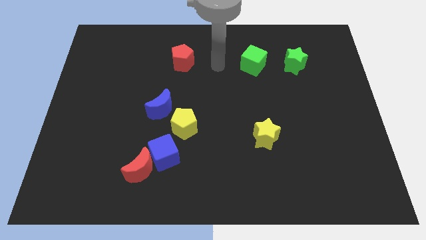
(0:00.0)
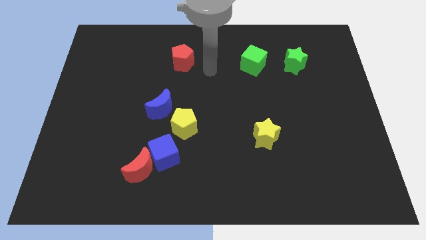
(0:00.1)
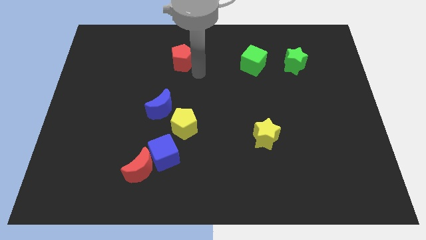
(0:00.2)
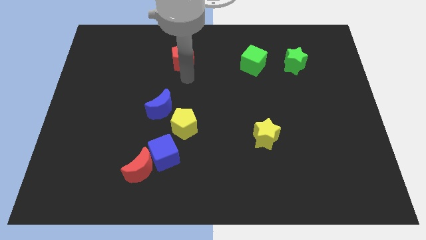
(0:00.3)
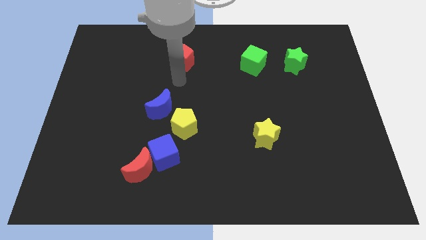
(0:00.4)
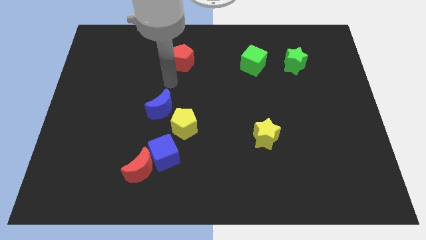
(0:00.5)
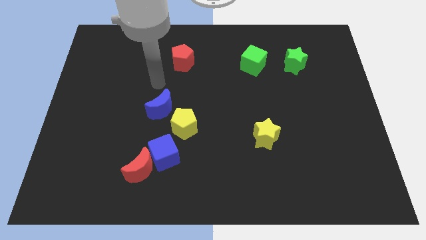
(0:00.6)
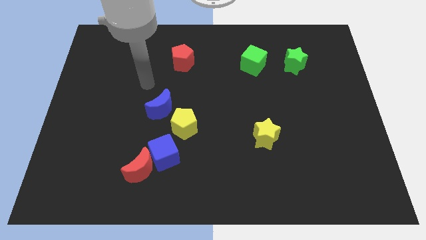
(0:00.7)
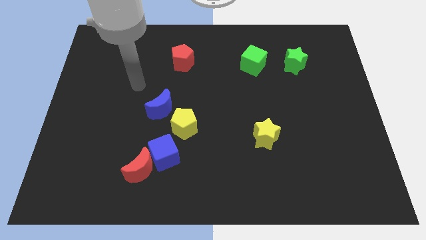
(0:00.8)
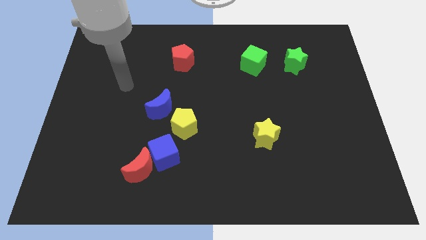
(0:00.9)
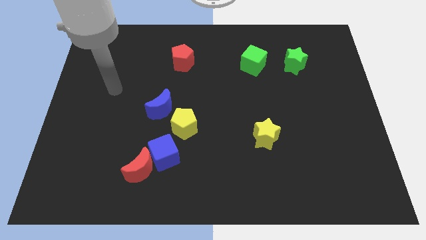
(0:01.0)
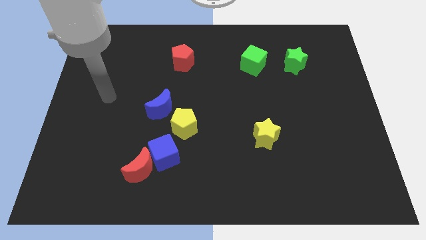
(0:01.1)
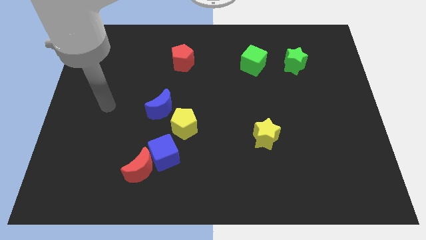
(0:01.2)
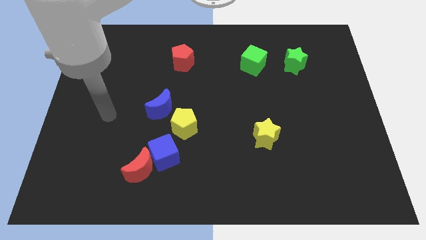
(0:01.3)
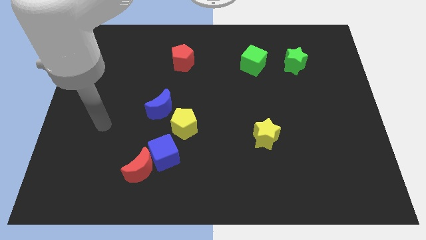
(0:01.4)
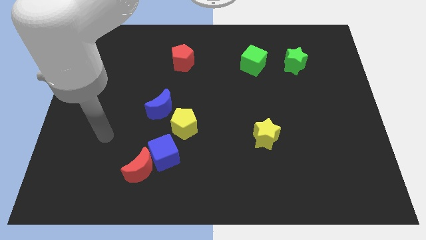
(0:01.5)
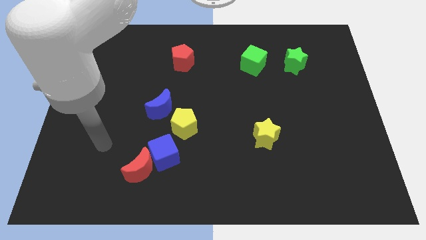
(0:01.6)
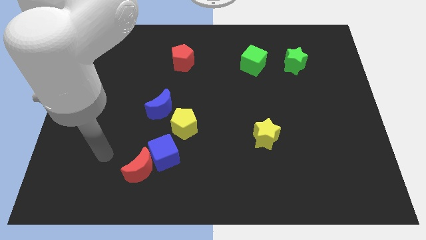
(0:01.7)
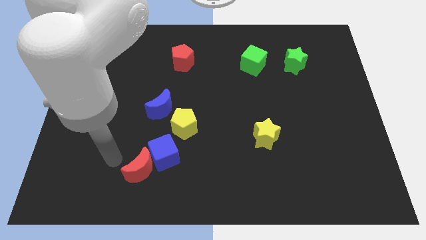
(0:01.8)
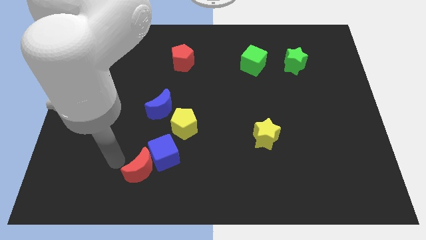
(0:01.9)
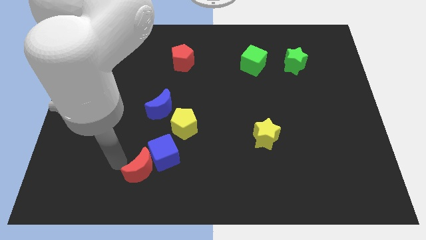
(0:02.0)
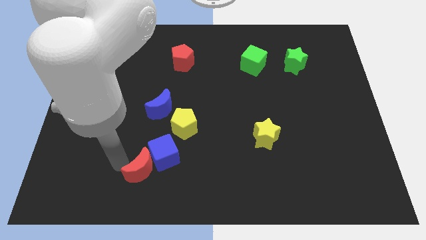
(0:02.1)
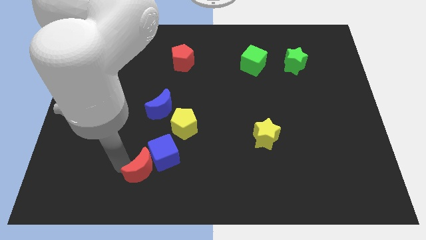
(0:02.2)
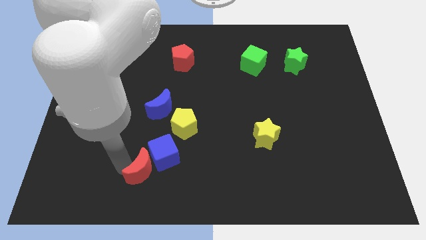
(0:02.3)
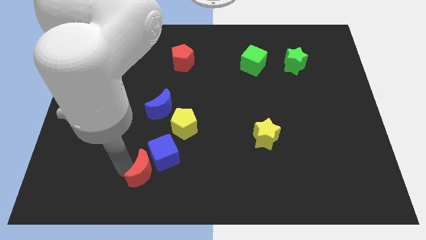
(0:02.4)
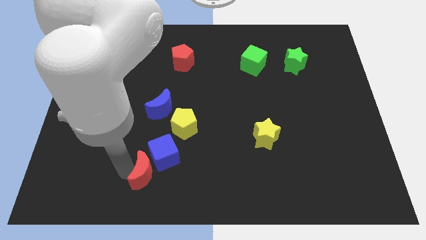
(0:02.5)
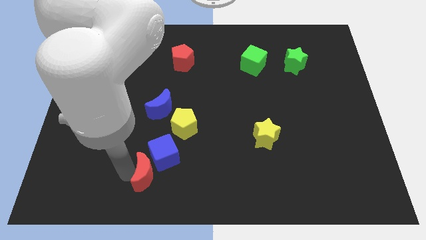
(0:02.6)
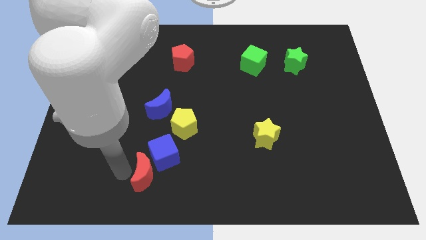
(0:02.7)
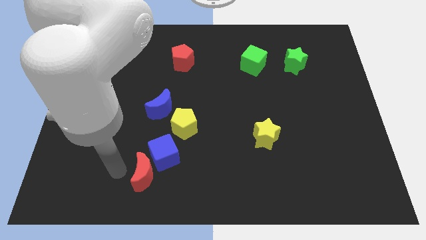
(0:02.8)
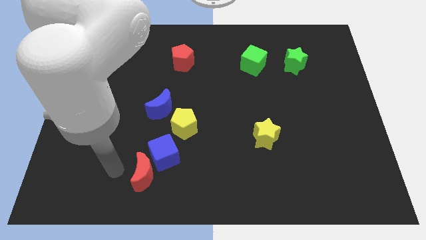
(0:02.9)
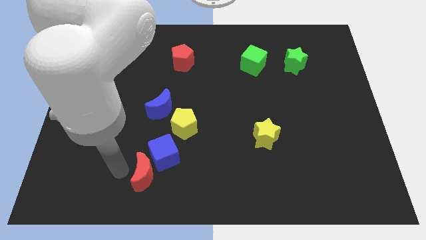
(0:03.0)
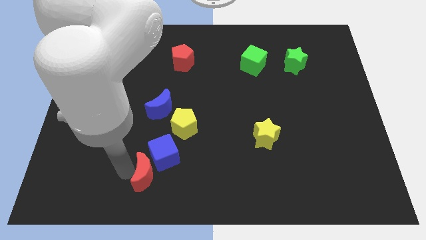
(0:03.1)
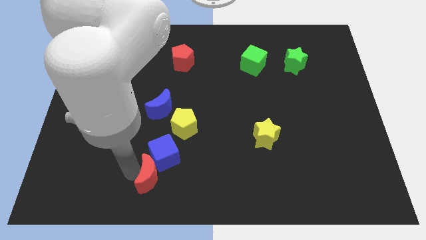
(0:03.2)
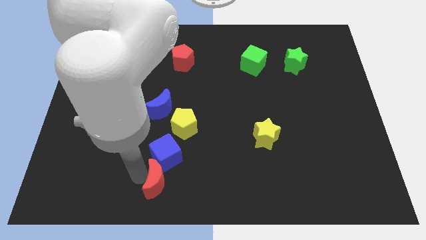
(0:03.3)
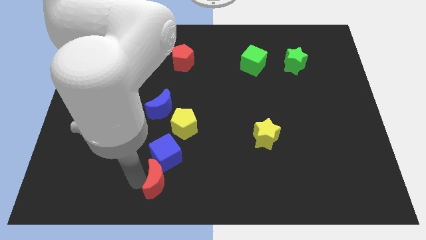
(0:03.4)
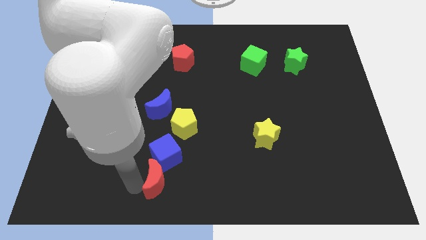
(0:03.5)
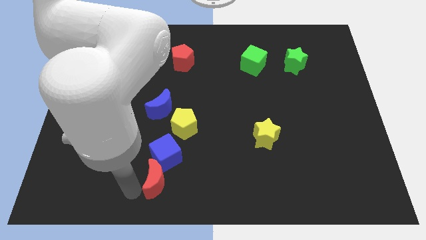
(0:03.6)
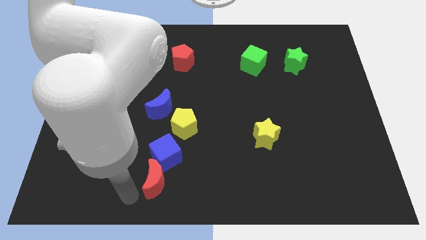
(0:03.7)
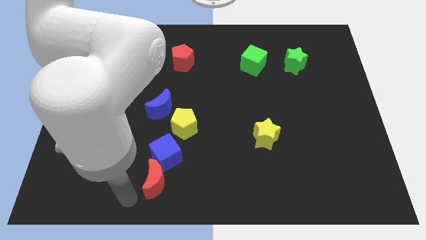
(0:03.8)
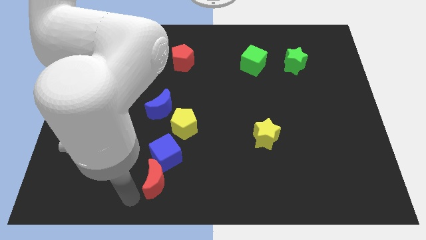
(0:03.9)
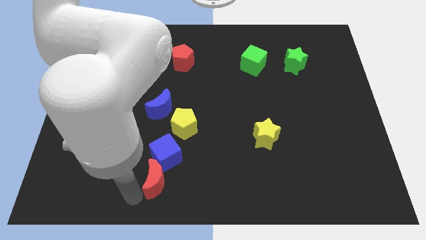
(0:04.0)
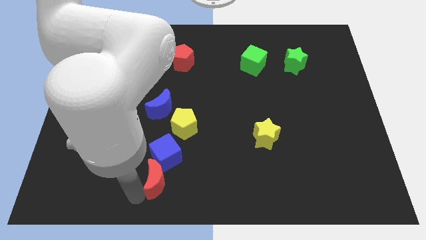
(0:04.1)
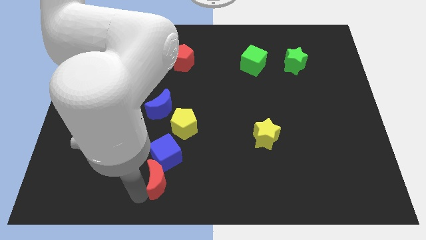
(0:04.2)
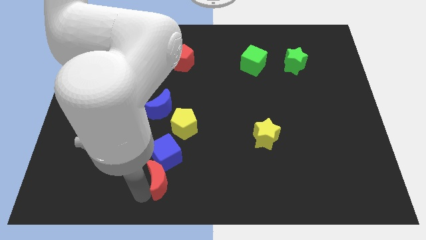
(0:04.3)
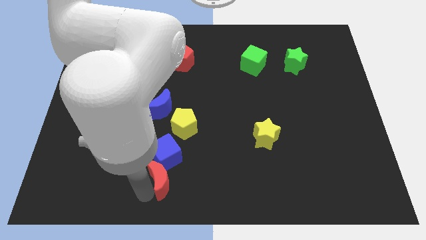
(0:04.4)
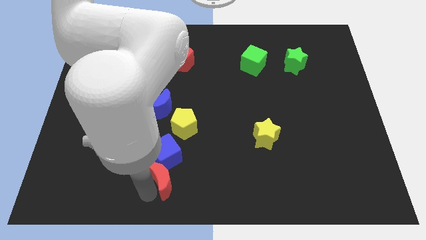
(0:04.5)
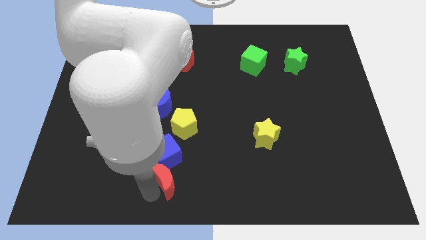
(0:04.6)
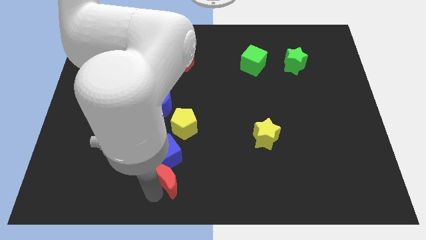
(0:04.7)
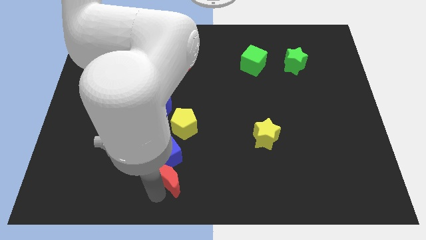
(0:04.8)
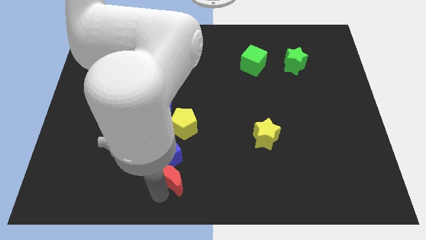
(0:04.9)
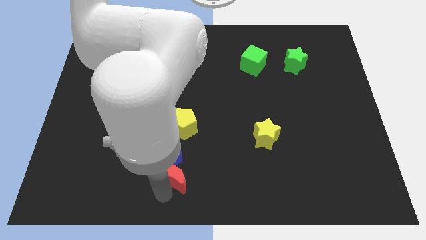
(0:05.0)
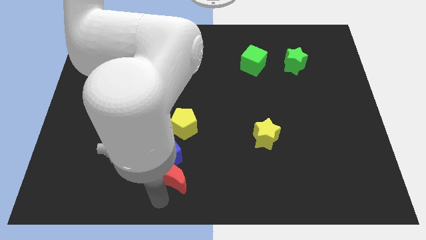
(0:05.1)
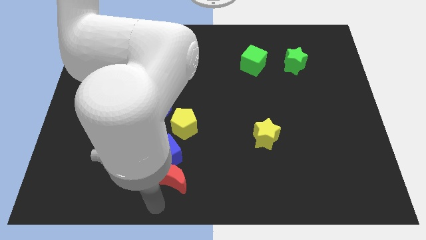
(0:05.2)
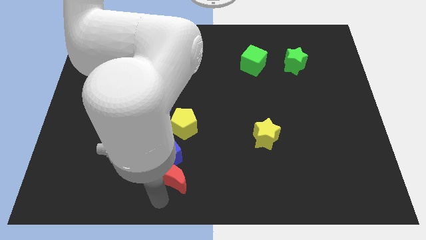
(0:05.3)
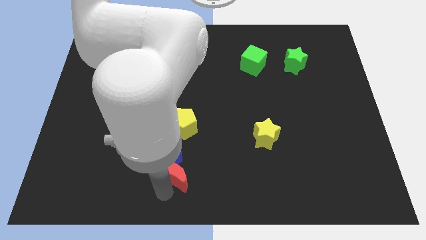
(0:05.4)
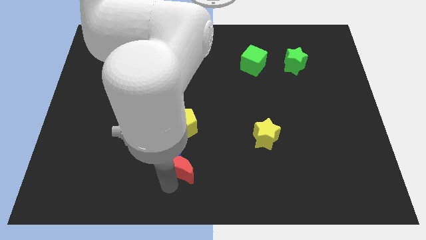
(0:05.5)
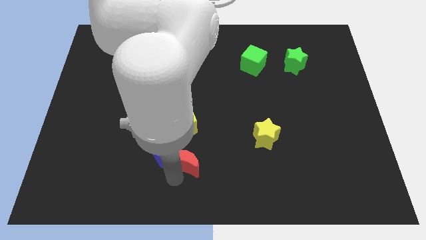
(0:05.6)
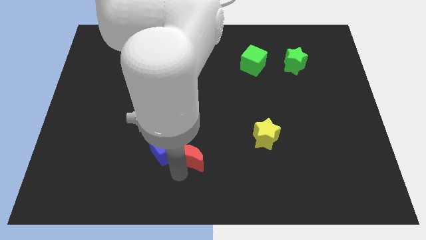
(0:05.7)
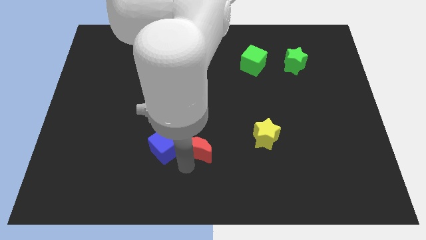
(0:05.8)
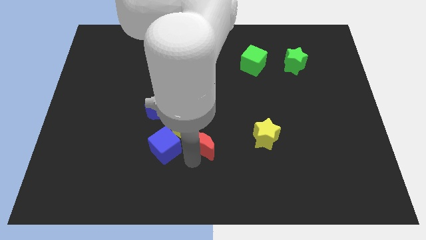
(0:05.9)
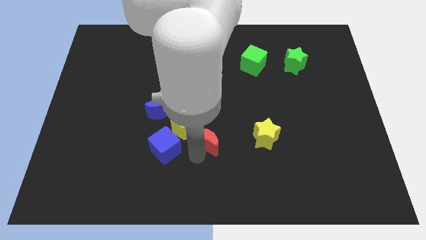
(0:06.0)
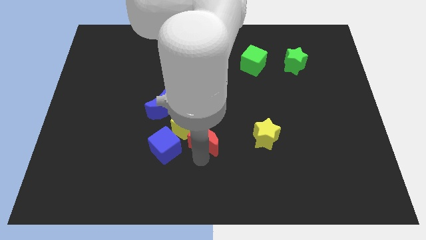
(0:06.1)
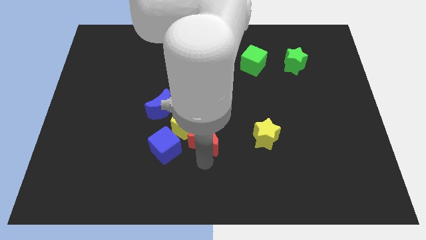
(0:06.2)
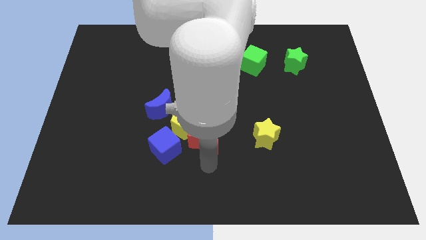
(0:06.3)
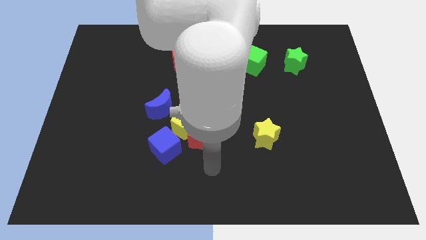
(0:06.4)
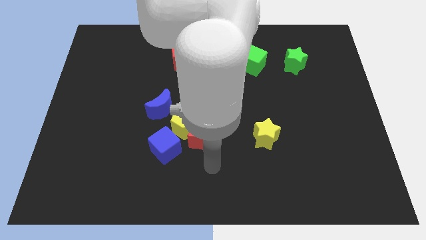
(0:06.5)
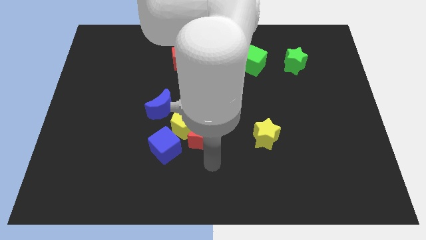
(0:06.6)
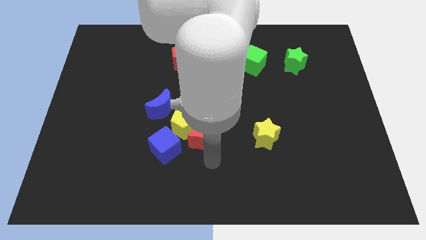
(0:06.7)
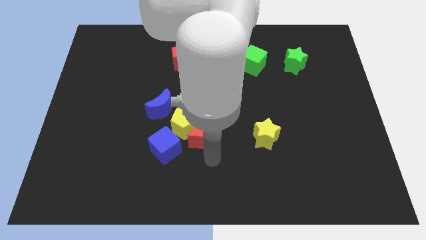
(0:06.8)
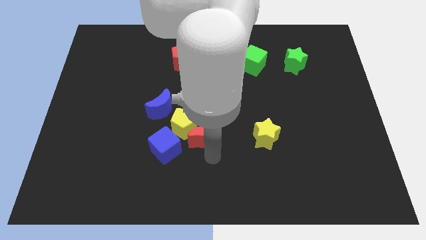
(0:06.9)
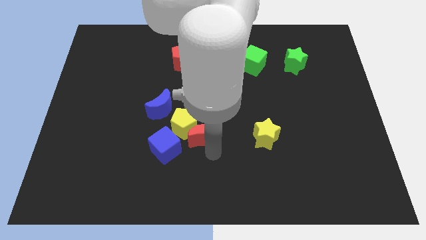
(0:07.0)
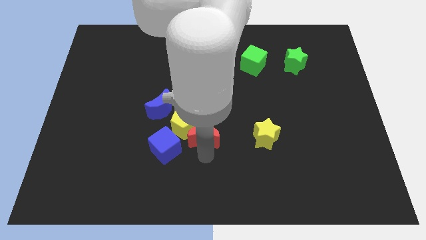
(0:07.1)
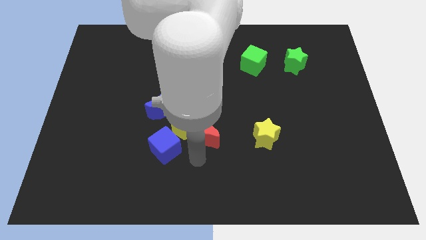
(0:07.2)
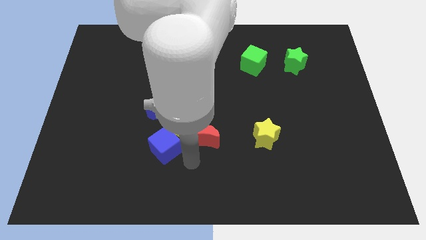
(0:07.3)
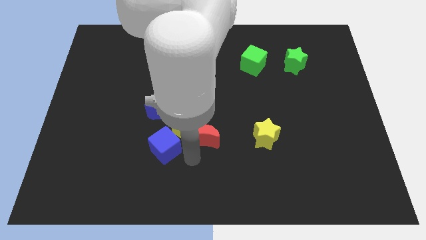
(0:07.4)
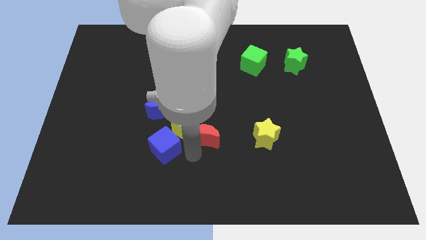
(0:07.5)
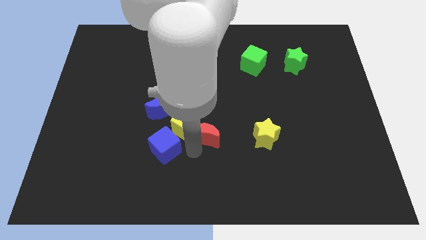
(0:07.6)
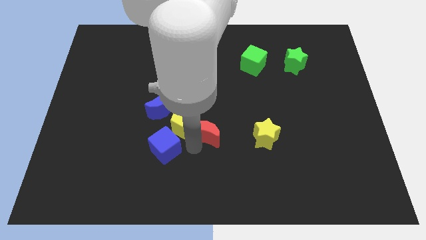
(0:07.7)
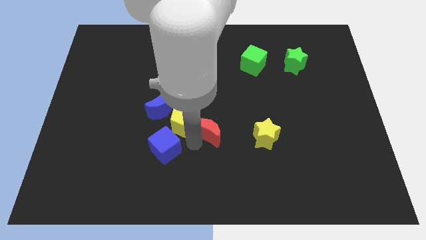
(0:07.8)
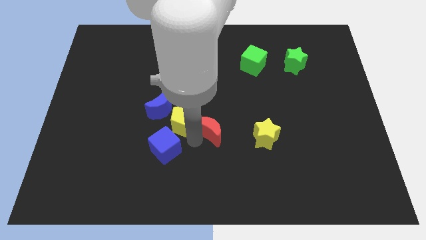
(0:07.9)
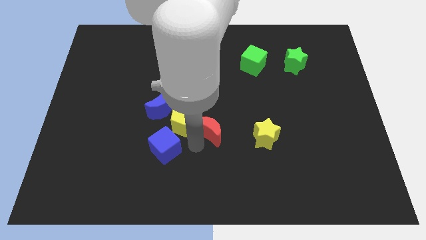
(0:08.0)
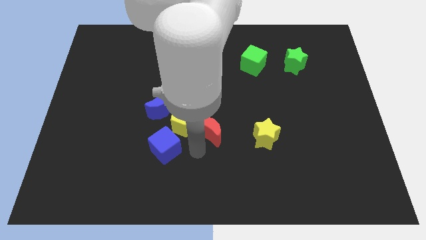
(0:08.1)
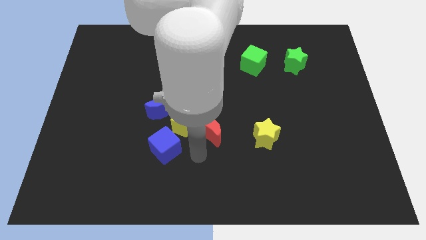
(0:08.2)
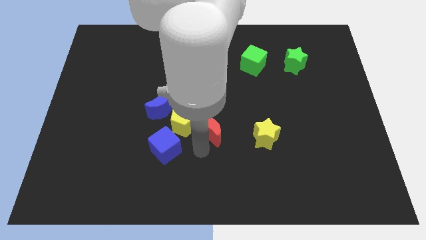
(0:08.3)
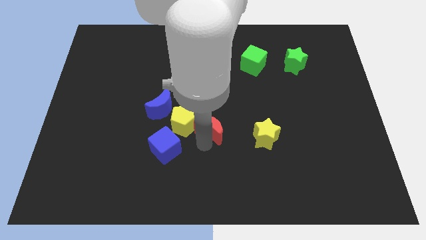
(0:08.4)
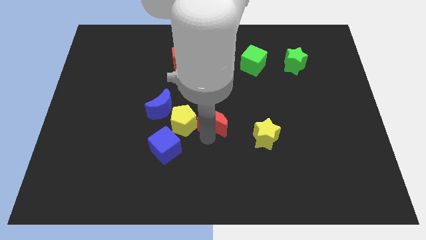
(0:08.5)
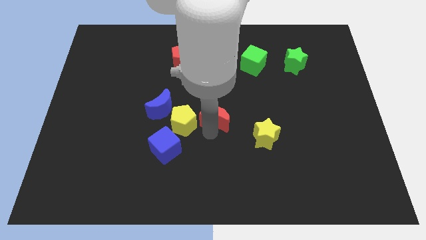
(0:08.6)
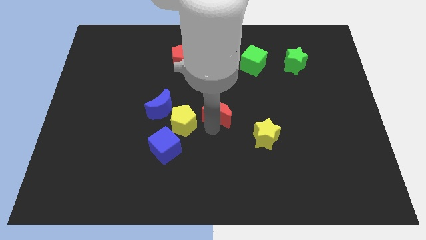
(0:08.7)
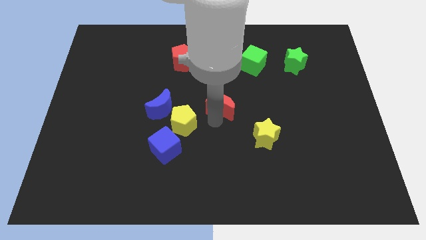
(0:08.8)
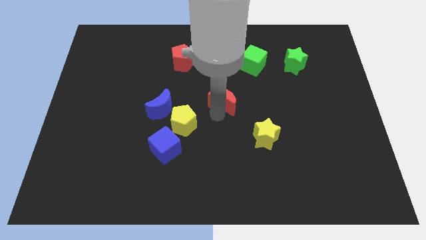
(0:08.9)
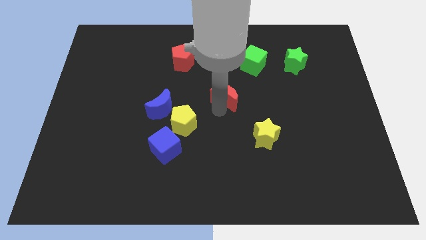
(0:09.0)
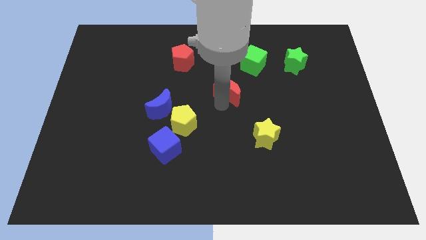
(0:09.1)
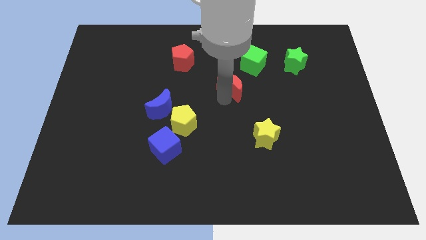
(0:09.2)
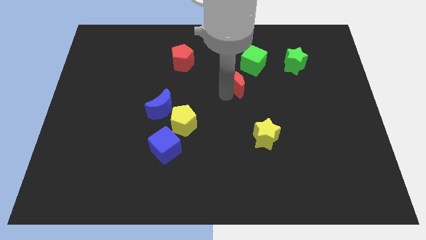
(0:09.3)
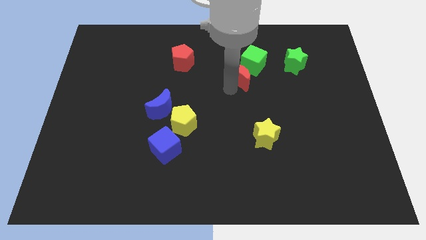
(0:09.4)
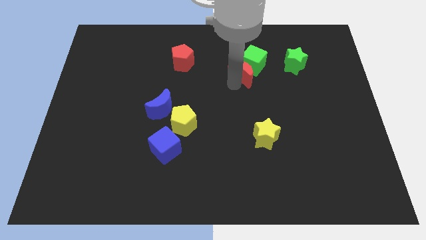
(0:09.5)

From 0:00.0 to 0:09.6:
slide the red moon to the green cube
